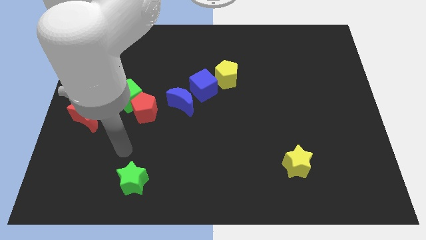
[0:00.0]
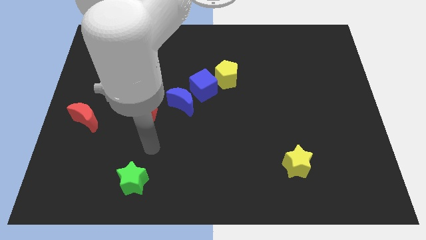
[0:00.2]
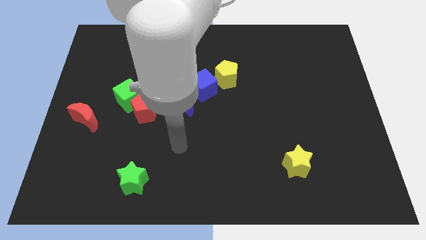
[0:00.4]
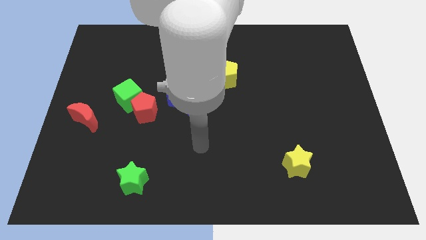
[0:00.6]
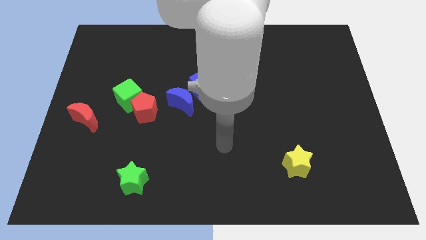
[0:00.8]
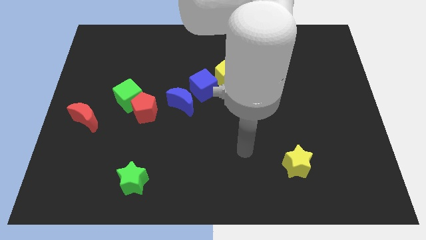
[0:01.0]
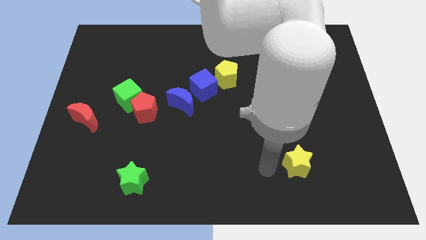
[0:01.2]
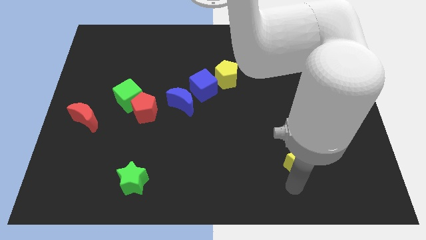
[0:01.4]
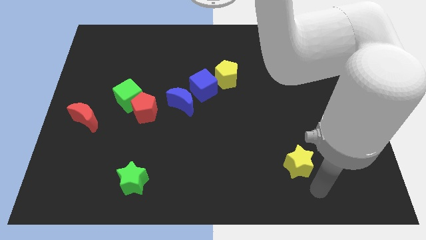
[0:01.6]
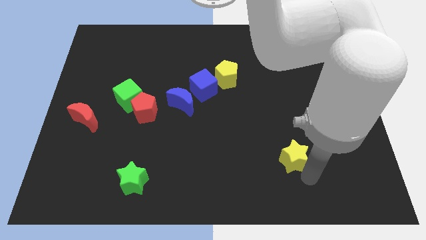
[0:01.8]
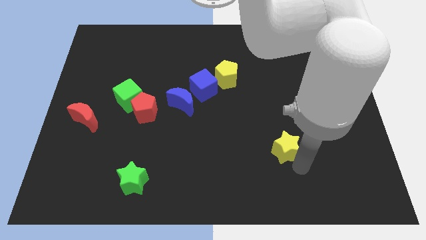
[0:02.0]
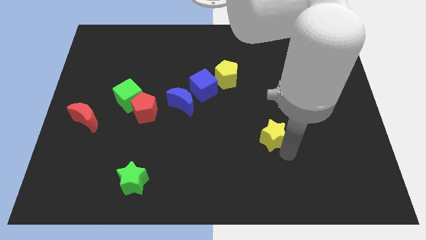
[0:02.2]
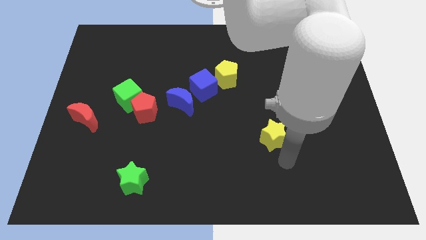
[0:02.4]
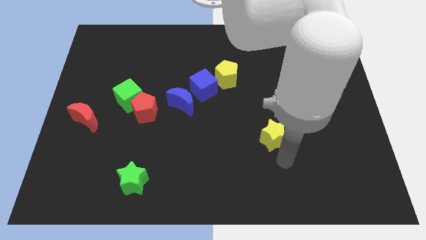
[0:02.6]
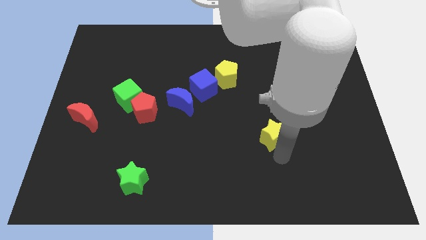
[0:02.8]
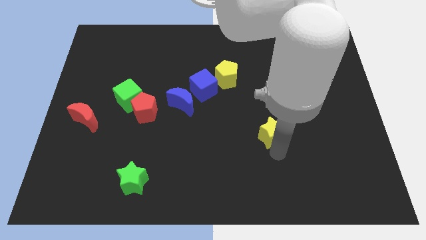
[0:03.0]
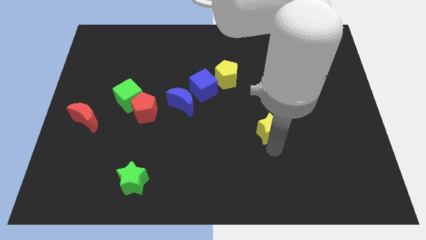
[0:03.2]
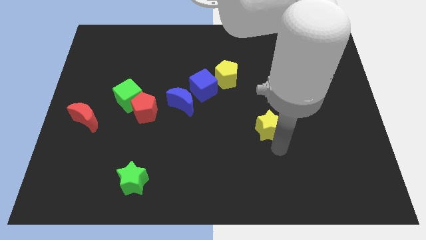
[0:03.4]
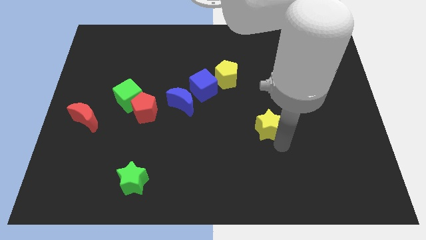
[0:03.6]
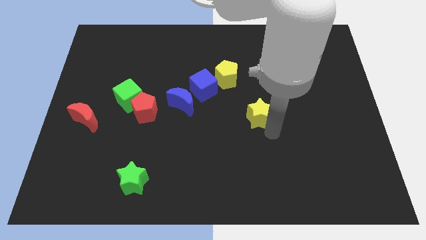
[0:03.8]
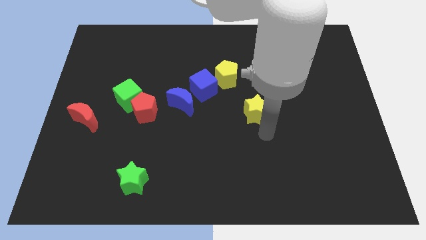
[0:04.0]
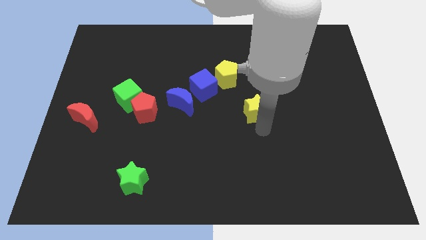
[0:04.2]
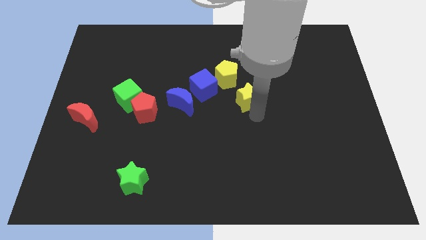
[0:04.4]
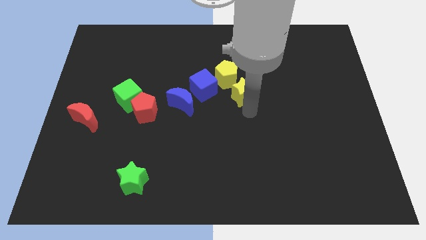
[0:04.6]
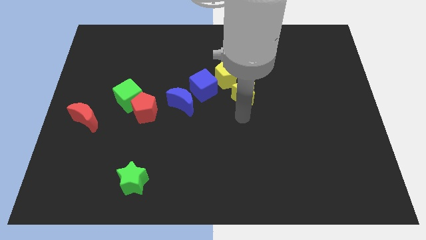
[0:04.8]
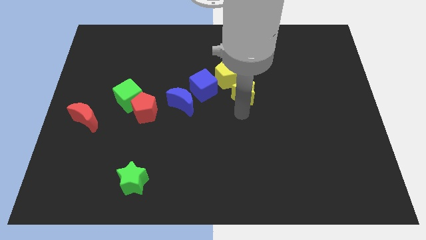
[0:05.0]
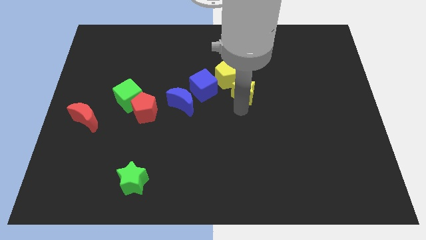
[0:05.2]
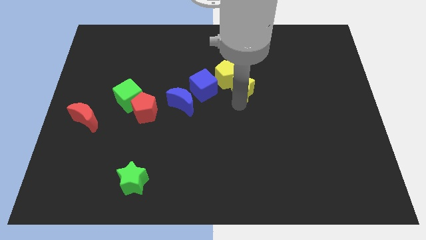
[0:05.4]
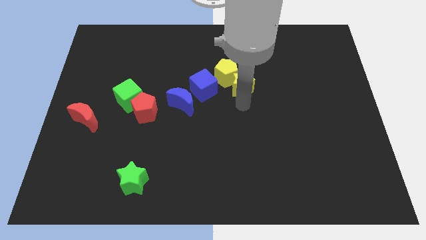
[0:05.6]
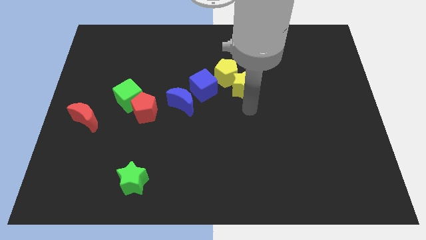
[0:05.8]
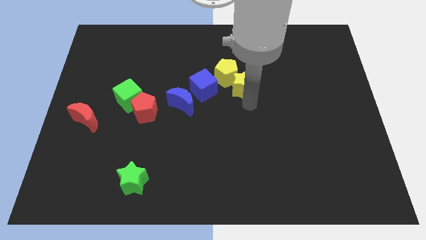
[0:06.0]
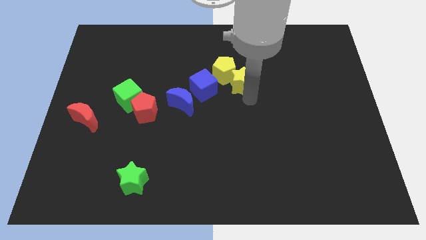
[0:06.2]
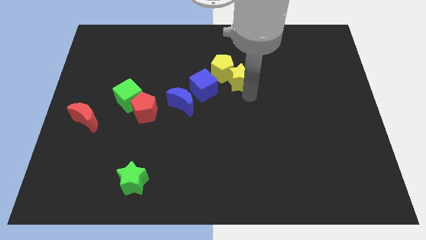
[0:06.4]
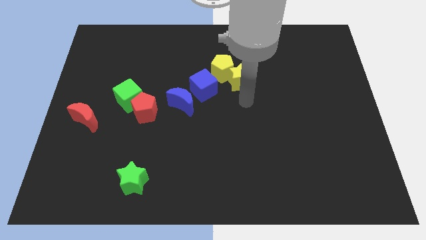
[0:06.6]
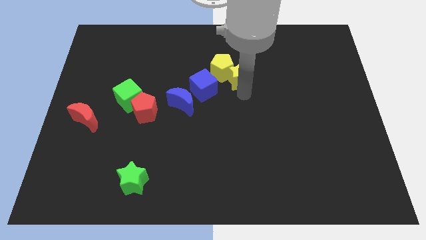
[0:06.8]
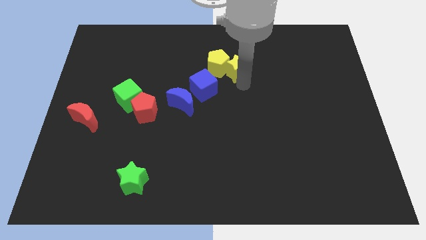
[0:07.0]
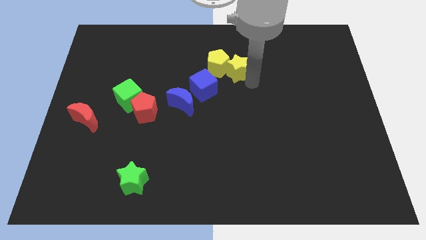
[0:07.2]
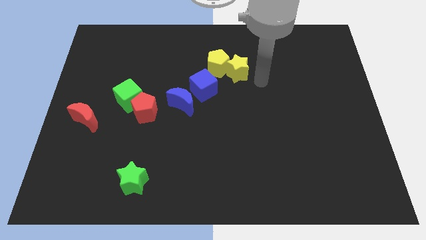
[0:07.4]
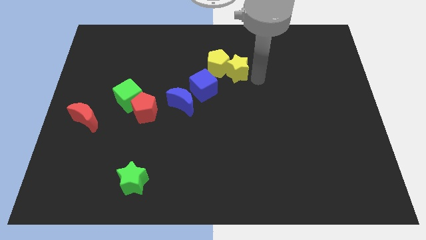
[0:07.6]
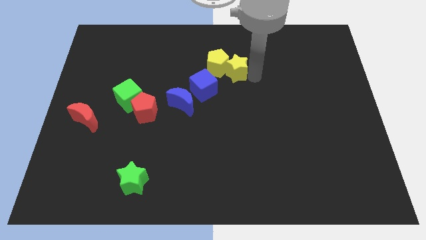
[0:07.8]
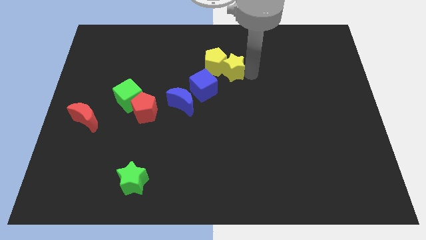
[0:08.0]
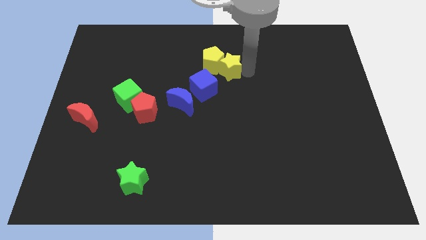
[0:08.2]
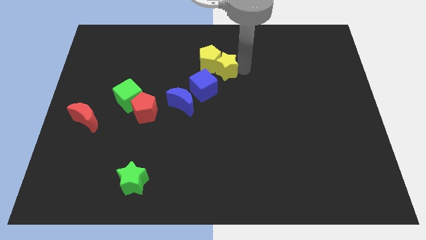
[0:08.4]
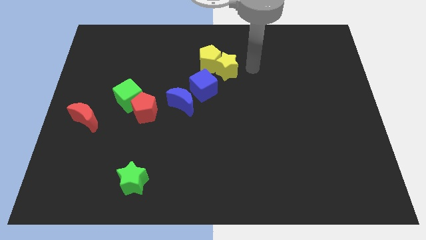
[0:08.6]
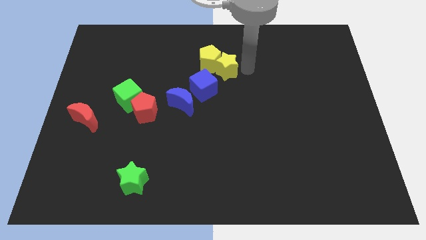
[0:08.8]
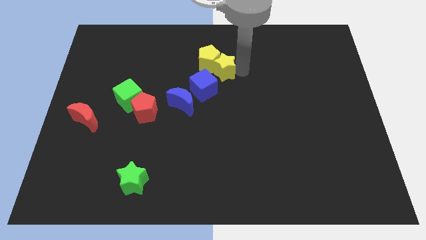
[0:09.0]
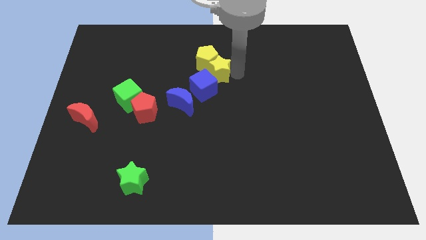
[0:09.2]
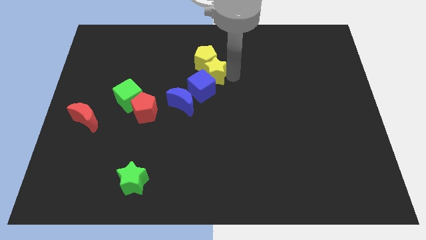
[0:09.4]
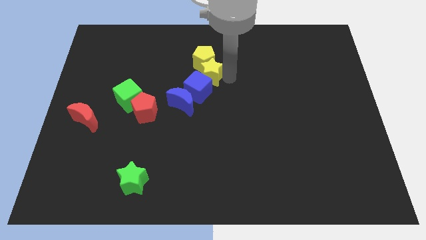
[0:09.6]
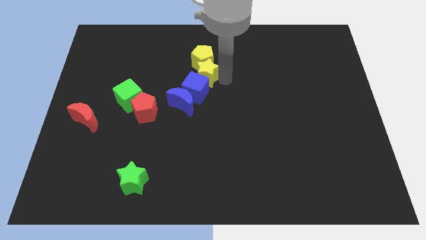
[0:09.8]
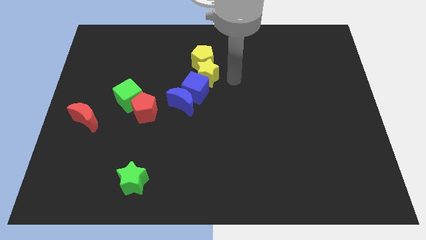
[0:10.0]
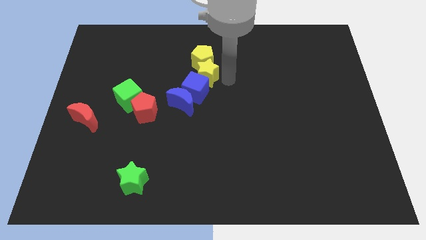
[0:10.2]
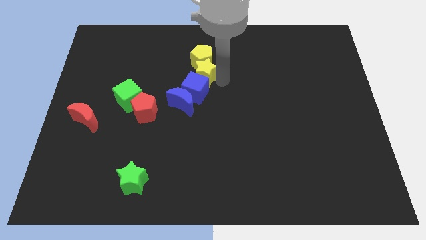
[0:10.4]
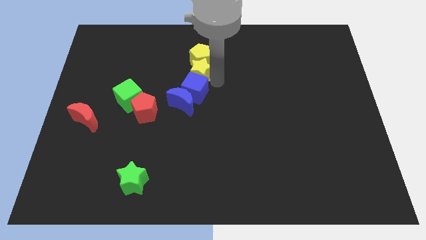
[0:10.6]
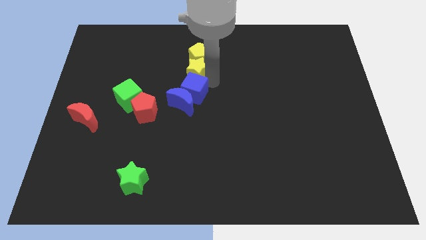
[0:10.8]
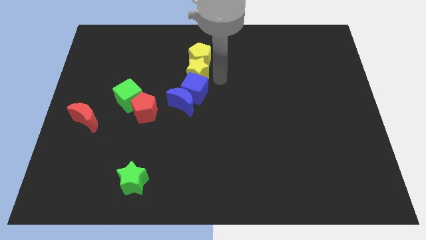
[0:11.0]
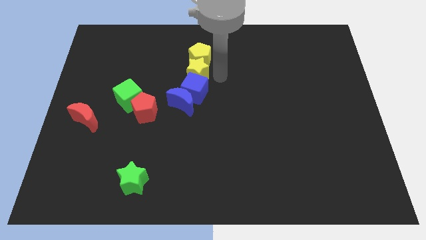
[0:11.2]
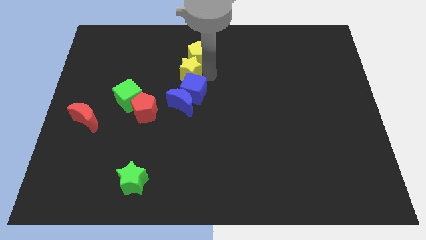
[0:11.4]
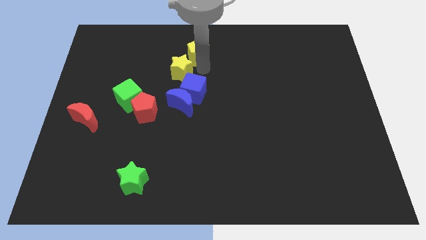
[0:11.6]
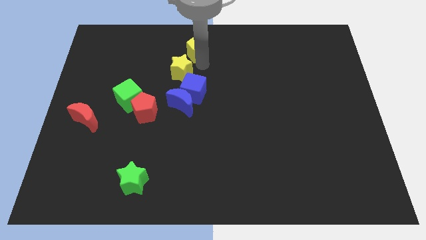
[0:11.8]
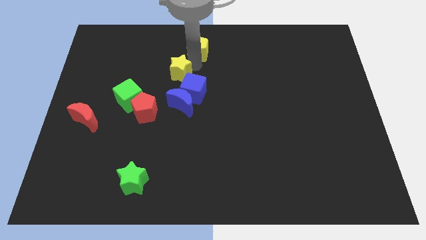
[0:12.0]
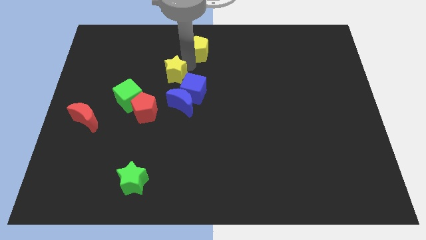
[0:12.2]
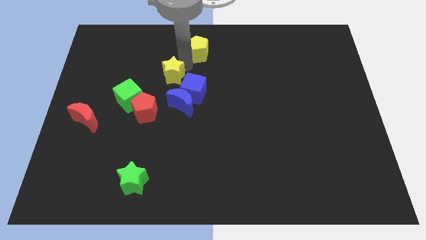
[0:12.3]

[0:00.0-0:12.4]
put the yellow star to the top right side of the green cube
